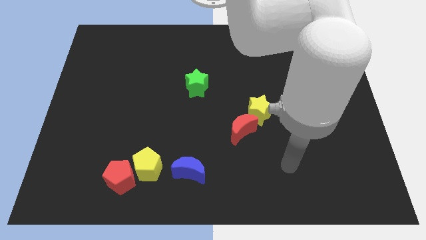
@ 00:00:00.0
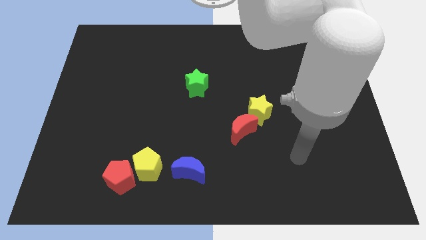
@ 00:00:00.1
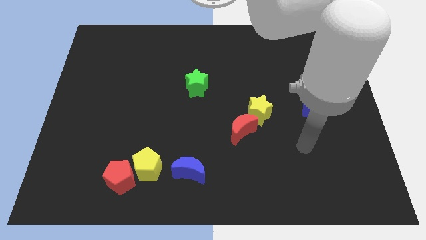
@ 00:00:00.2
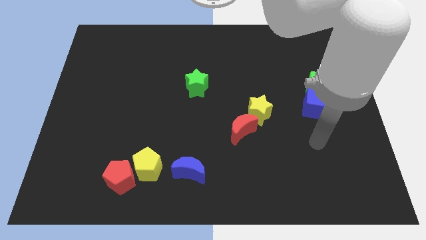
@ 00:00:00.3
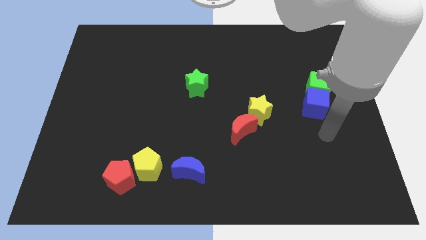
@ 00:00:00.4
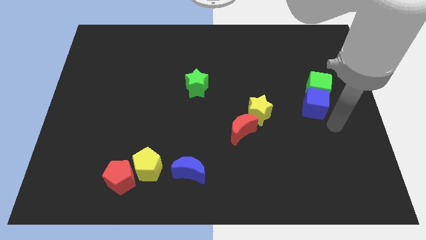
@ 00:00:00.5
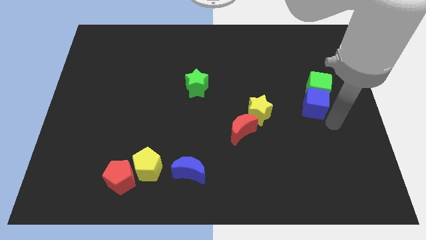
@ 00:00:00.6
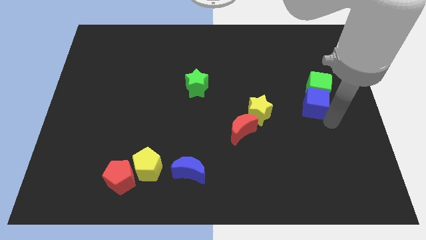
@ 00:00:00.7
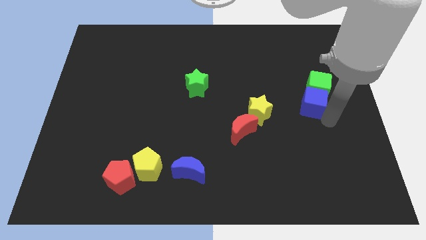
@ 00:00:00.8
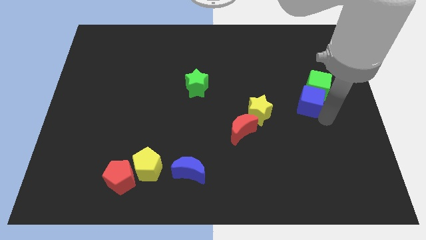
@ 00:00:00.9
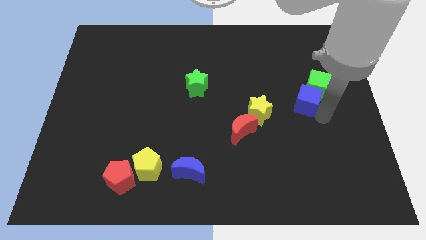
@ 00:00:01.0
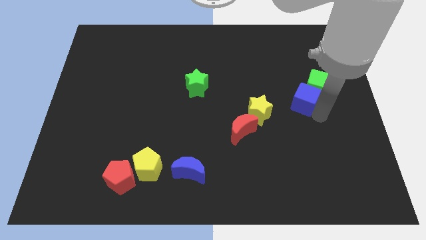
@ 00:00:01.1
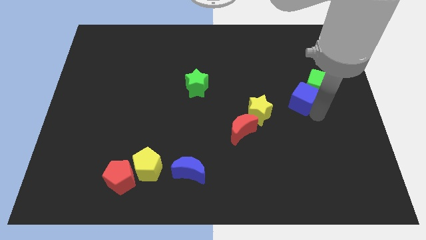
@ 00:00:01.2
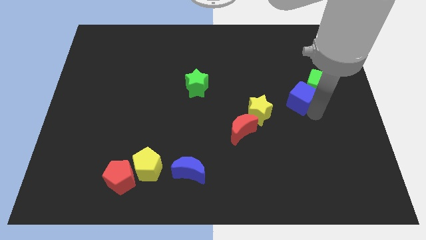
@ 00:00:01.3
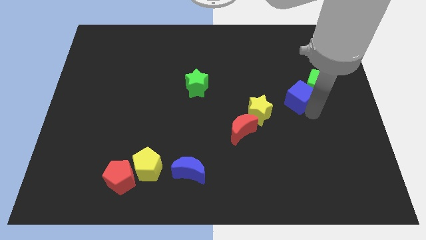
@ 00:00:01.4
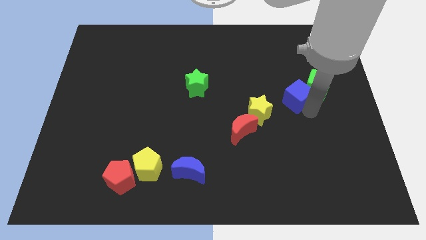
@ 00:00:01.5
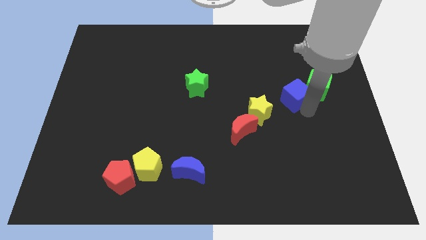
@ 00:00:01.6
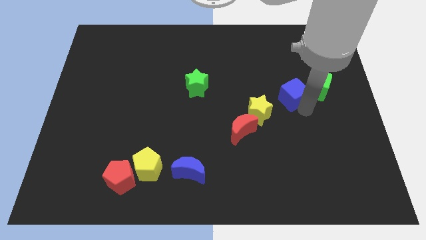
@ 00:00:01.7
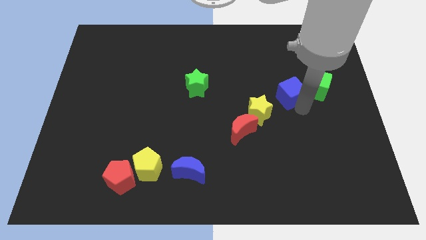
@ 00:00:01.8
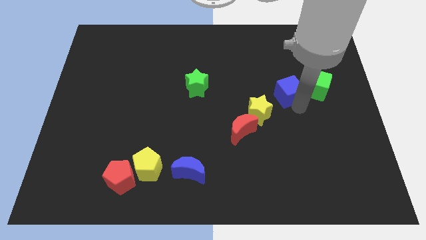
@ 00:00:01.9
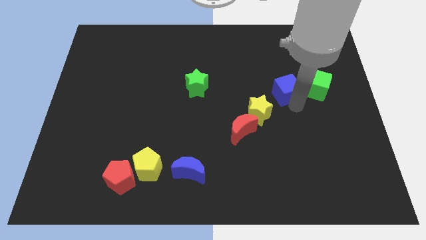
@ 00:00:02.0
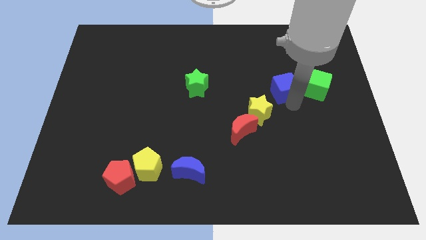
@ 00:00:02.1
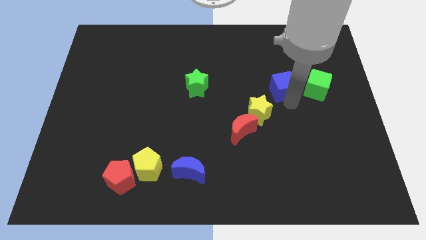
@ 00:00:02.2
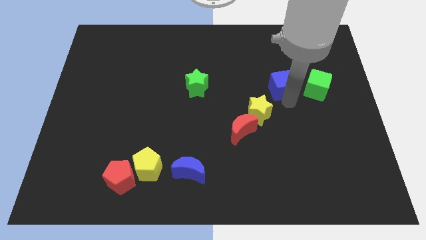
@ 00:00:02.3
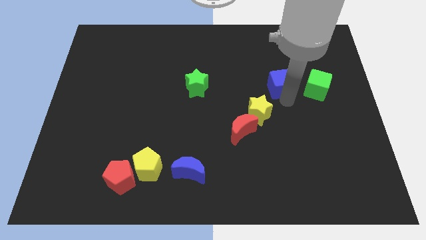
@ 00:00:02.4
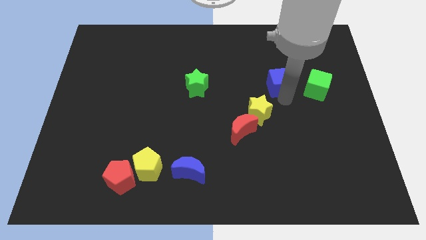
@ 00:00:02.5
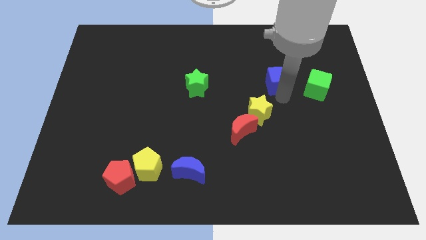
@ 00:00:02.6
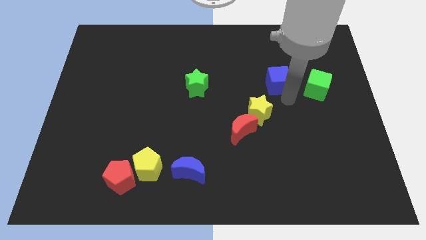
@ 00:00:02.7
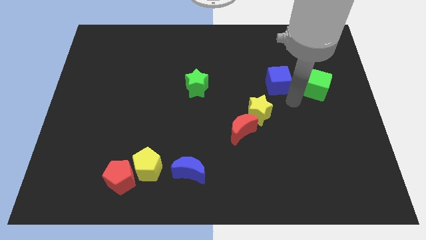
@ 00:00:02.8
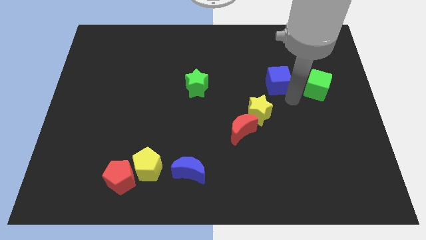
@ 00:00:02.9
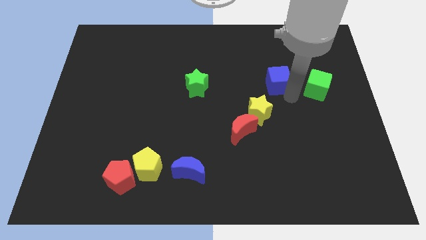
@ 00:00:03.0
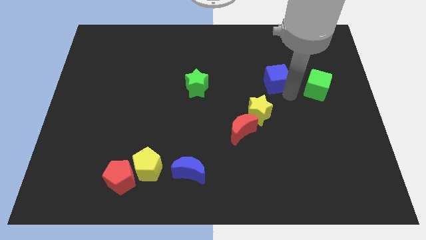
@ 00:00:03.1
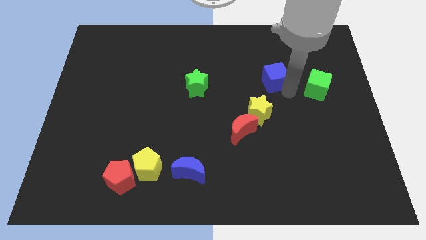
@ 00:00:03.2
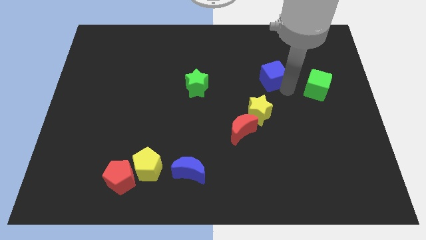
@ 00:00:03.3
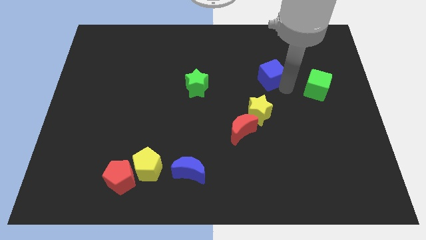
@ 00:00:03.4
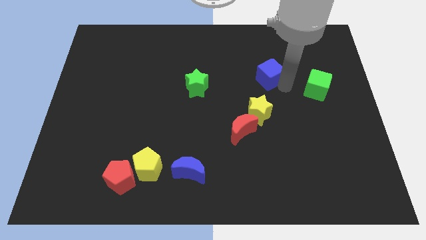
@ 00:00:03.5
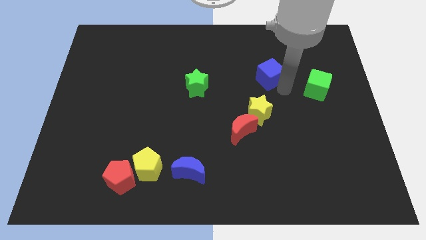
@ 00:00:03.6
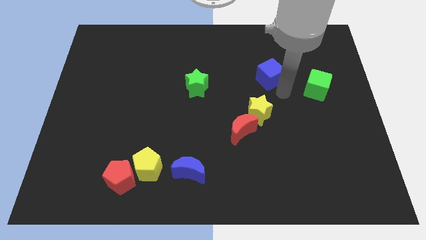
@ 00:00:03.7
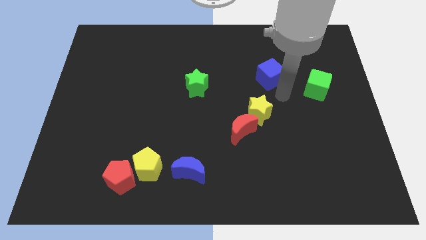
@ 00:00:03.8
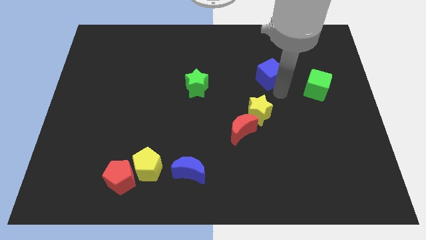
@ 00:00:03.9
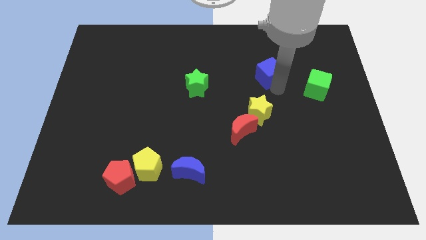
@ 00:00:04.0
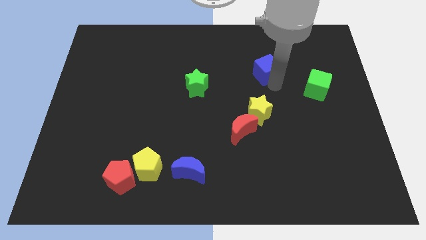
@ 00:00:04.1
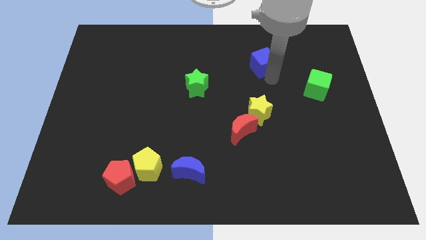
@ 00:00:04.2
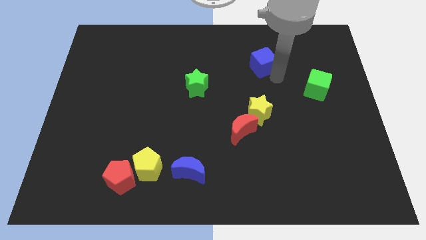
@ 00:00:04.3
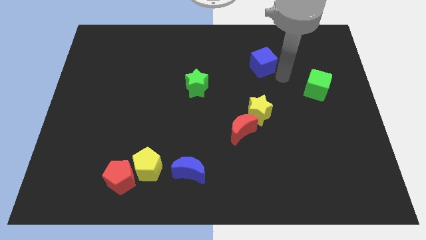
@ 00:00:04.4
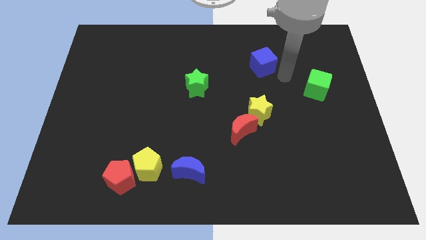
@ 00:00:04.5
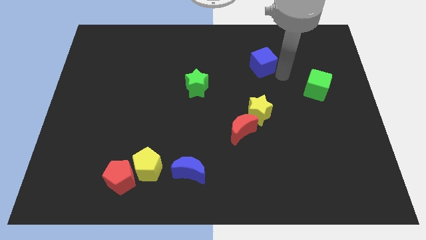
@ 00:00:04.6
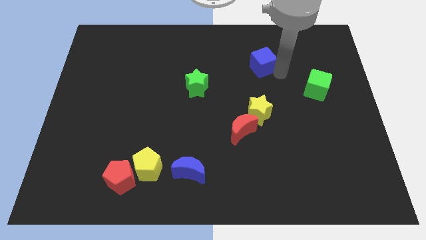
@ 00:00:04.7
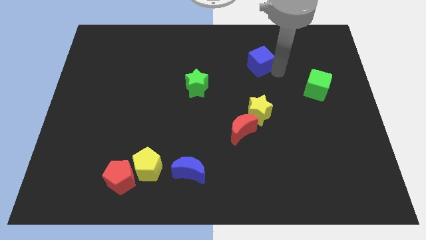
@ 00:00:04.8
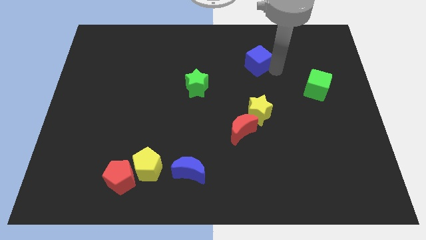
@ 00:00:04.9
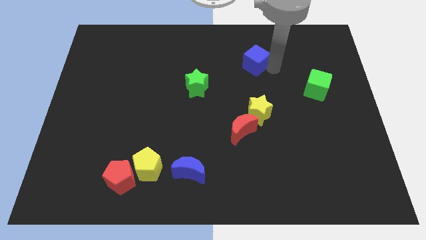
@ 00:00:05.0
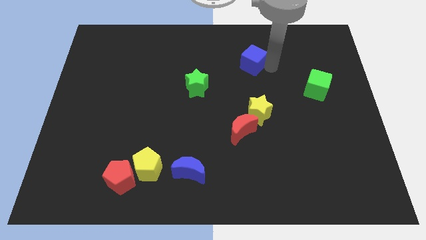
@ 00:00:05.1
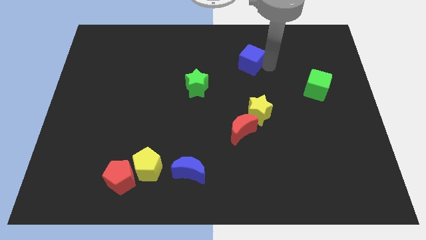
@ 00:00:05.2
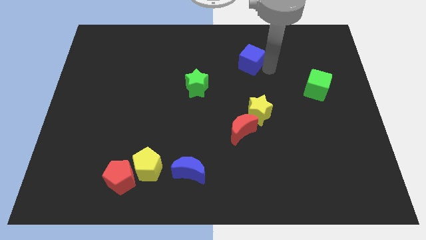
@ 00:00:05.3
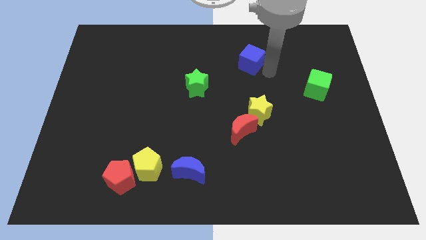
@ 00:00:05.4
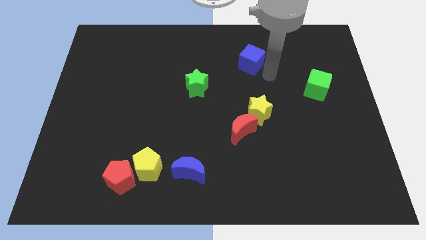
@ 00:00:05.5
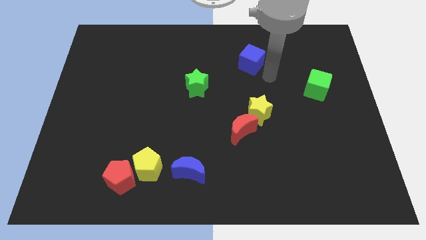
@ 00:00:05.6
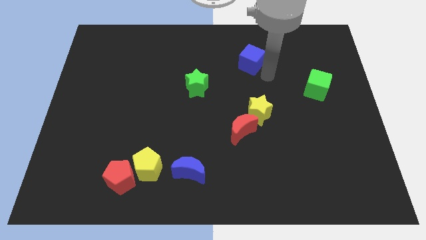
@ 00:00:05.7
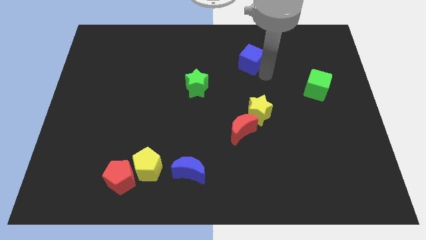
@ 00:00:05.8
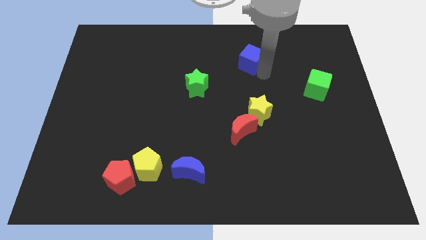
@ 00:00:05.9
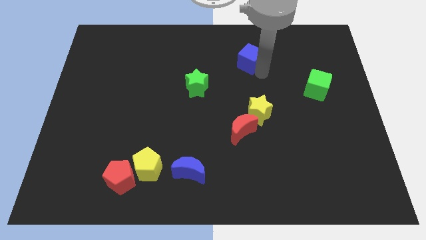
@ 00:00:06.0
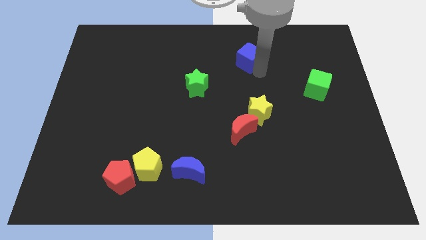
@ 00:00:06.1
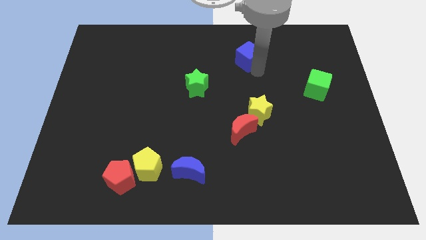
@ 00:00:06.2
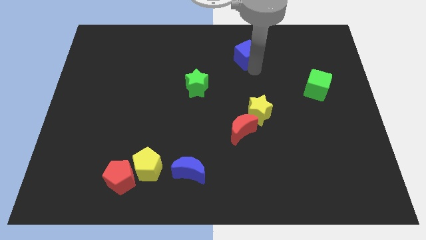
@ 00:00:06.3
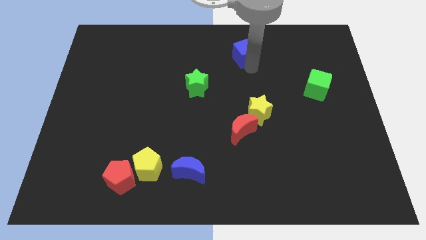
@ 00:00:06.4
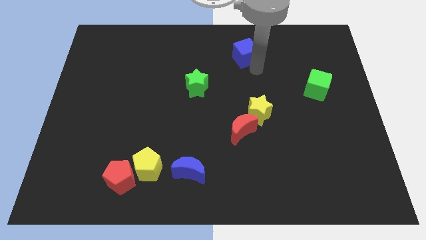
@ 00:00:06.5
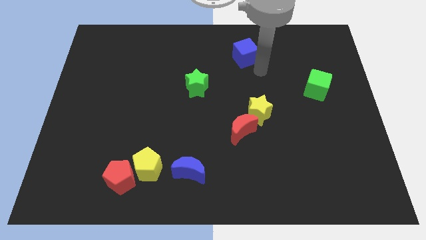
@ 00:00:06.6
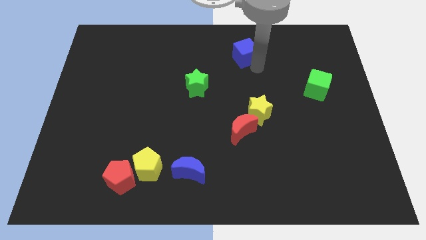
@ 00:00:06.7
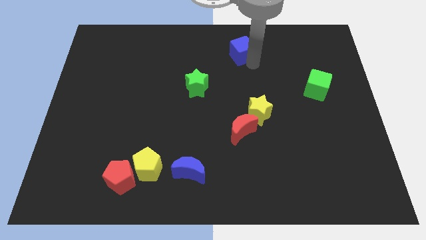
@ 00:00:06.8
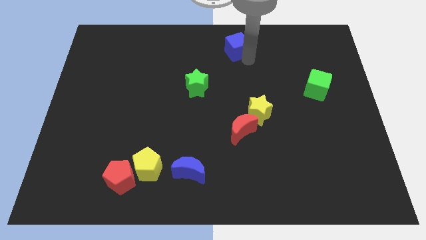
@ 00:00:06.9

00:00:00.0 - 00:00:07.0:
slide the blue cube to the top side

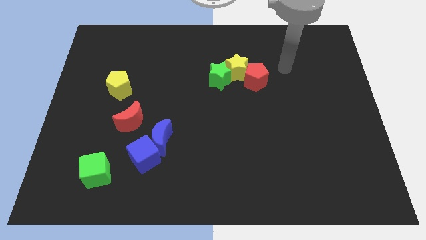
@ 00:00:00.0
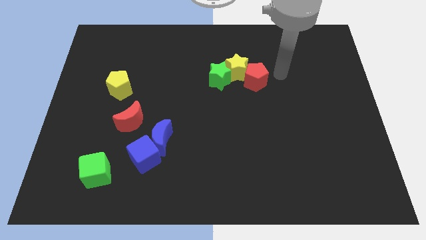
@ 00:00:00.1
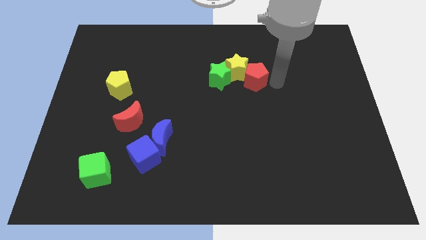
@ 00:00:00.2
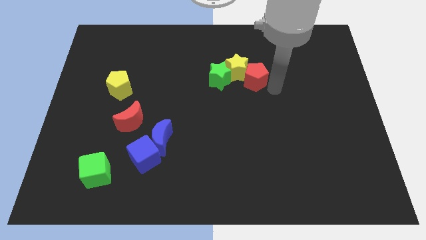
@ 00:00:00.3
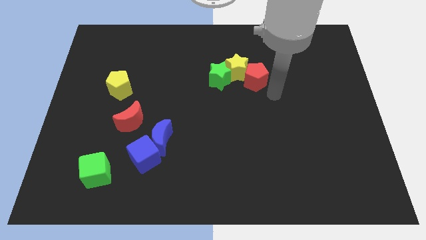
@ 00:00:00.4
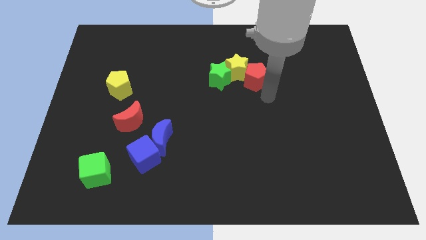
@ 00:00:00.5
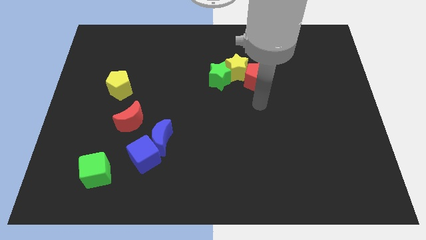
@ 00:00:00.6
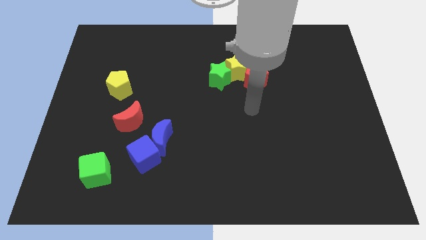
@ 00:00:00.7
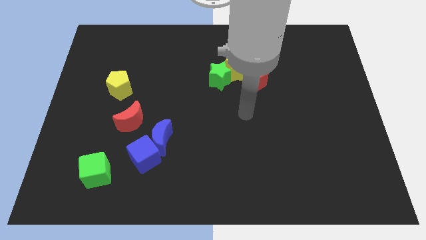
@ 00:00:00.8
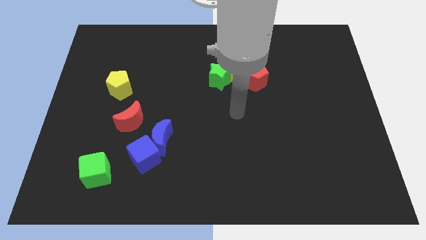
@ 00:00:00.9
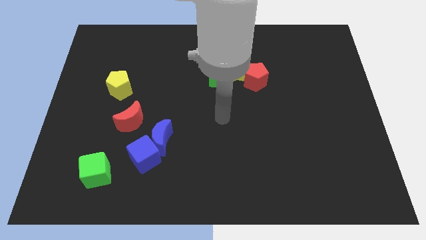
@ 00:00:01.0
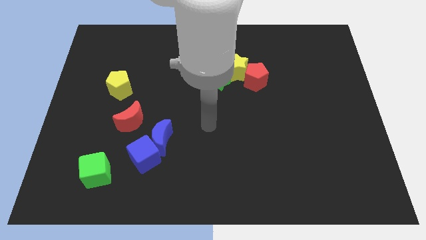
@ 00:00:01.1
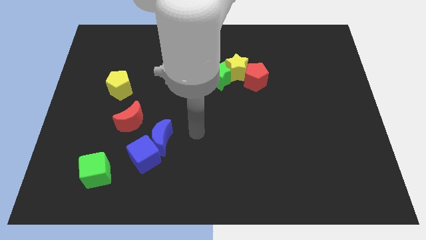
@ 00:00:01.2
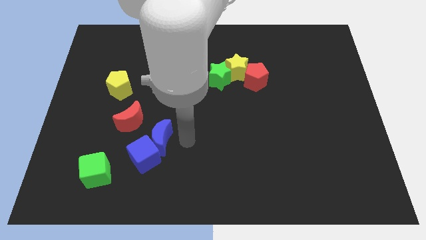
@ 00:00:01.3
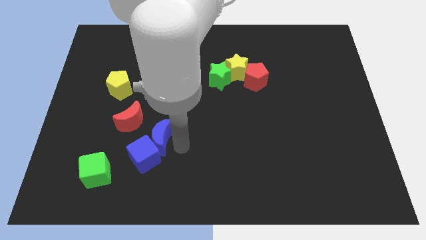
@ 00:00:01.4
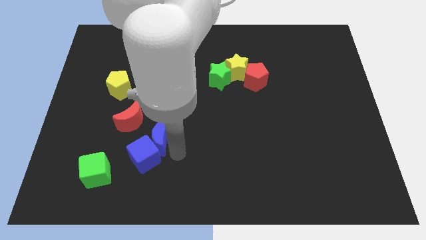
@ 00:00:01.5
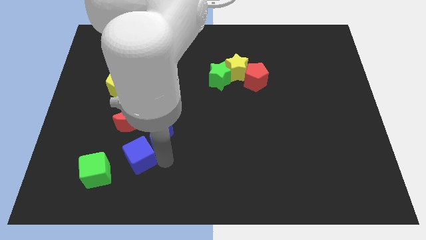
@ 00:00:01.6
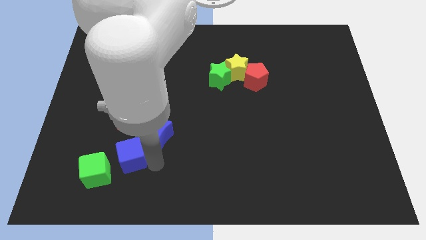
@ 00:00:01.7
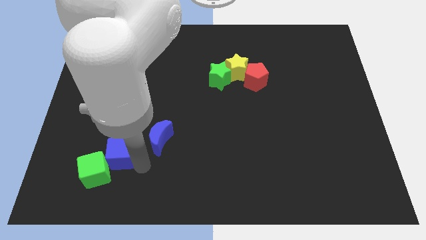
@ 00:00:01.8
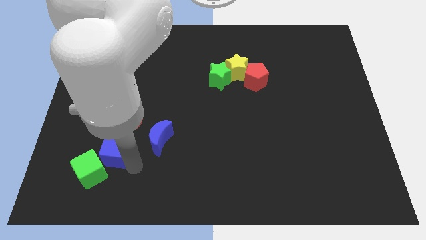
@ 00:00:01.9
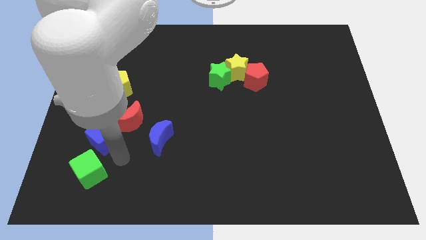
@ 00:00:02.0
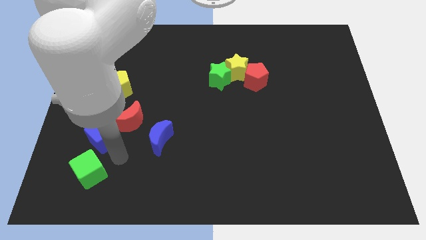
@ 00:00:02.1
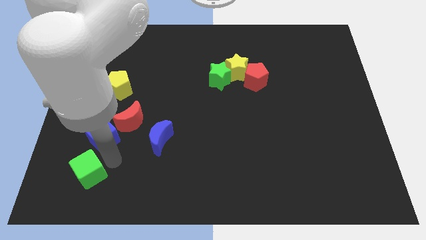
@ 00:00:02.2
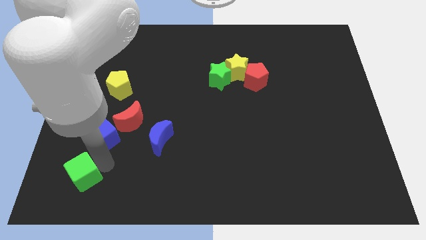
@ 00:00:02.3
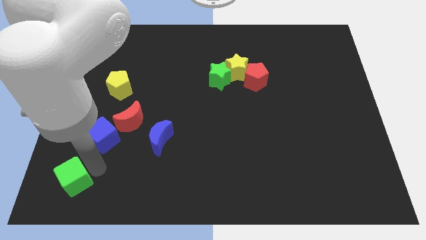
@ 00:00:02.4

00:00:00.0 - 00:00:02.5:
move the green cube to the lower left corner
